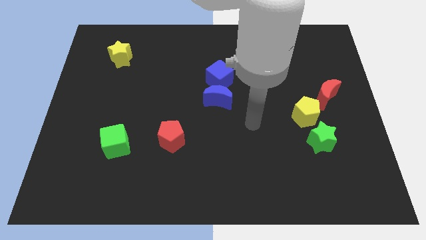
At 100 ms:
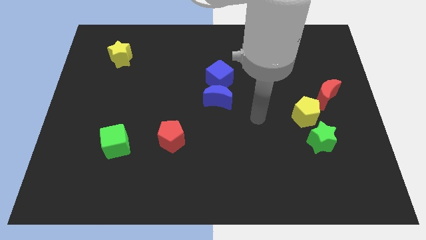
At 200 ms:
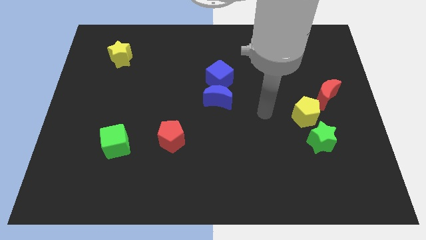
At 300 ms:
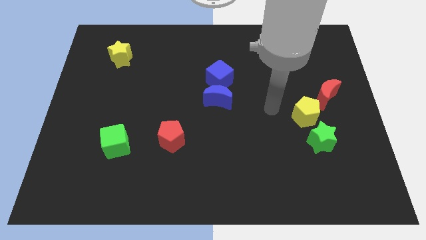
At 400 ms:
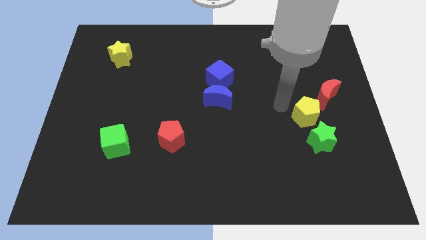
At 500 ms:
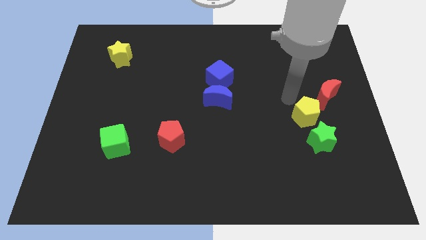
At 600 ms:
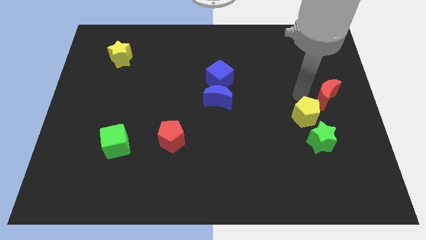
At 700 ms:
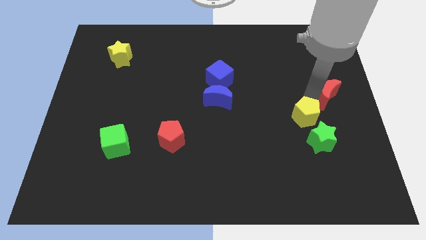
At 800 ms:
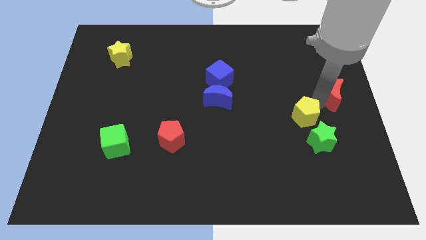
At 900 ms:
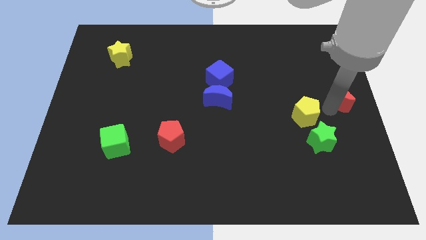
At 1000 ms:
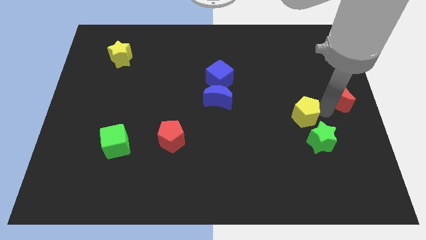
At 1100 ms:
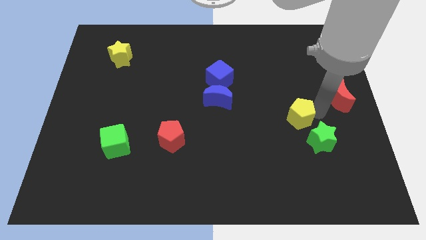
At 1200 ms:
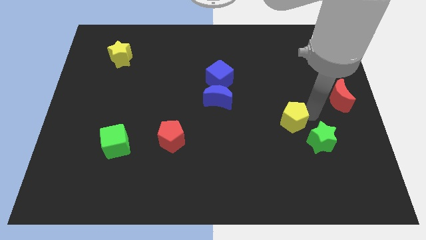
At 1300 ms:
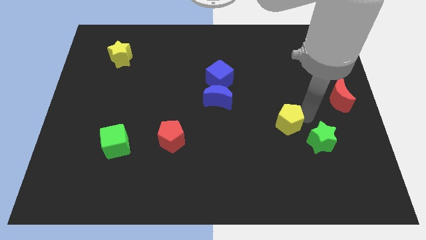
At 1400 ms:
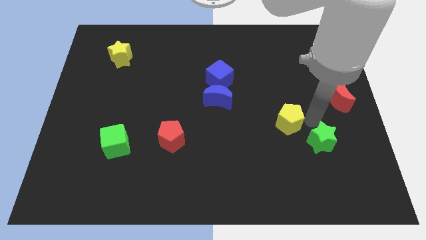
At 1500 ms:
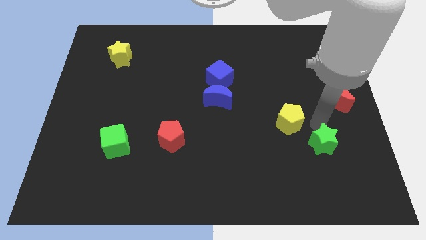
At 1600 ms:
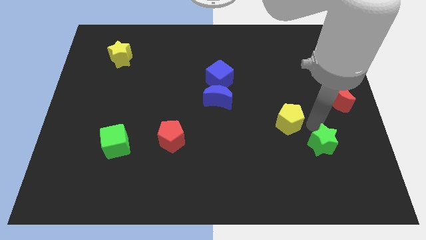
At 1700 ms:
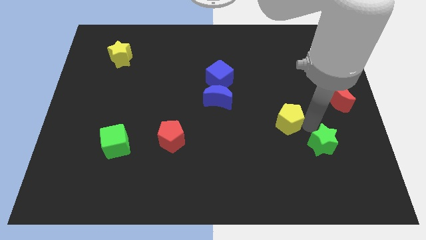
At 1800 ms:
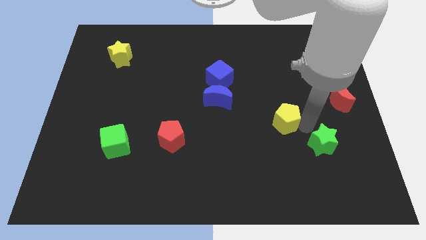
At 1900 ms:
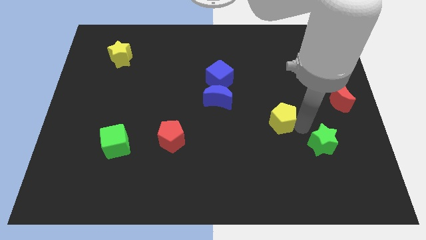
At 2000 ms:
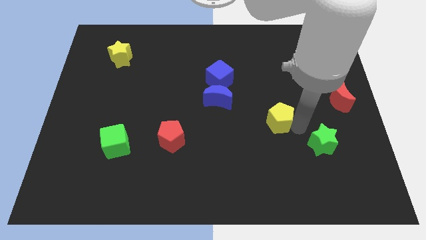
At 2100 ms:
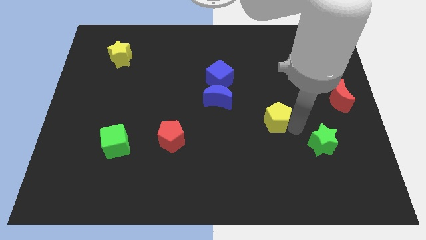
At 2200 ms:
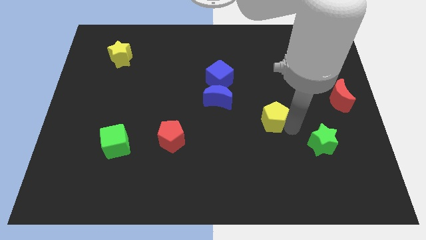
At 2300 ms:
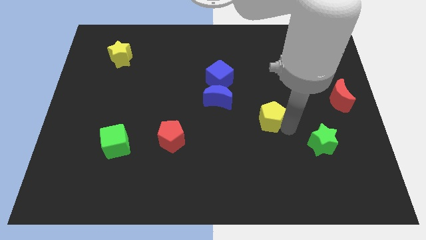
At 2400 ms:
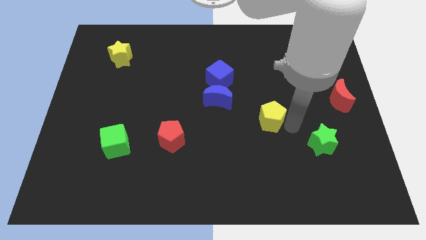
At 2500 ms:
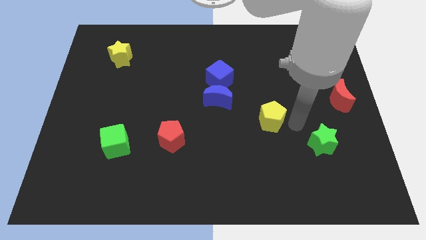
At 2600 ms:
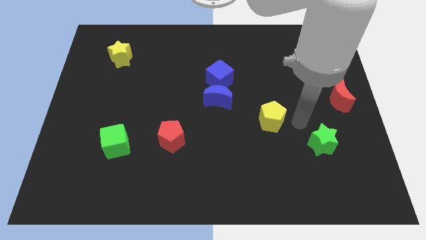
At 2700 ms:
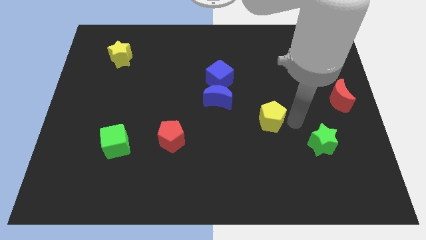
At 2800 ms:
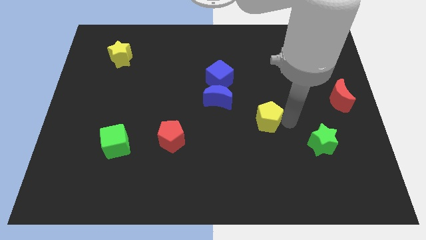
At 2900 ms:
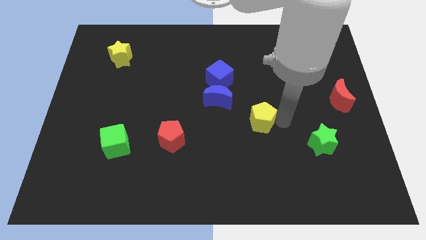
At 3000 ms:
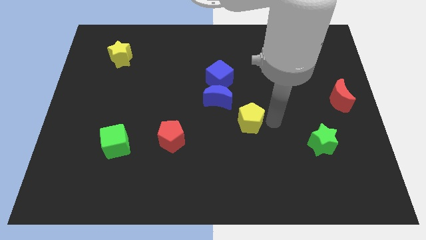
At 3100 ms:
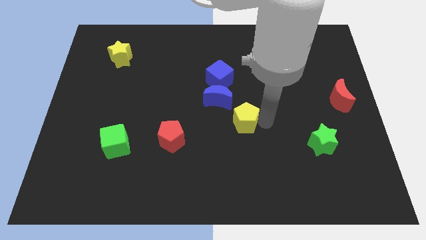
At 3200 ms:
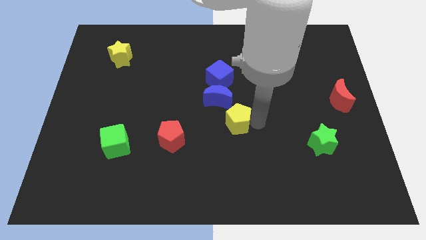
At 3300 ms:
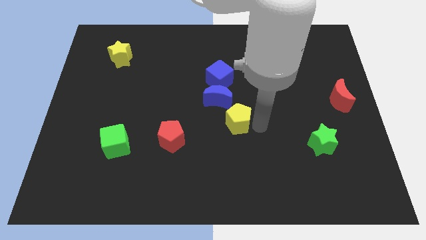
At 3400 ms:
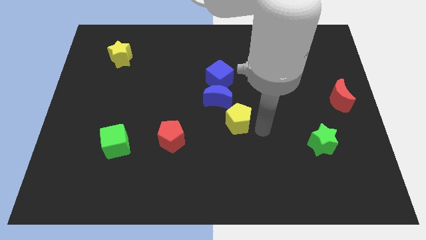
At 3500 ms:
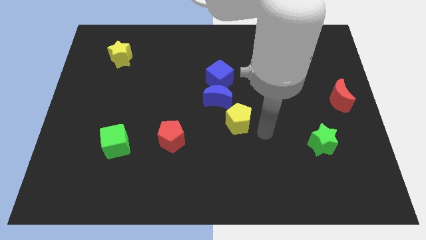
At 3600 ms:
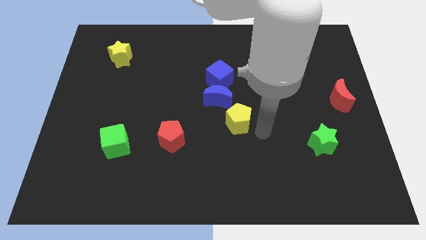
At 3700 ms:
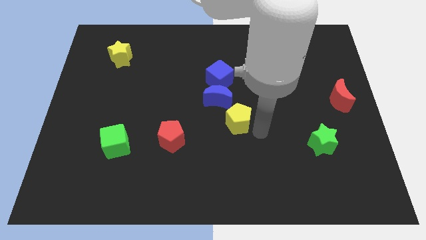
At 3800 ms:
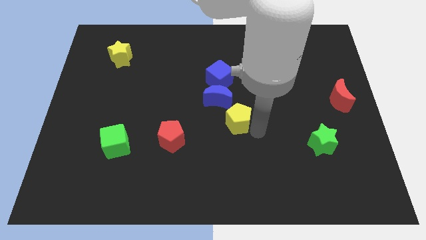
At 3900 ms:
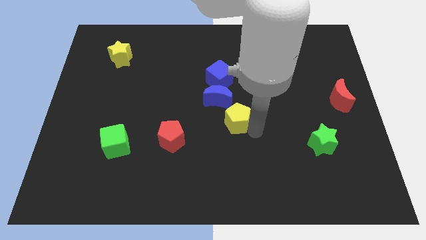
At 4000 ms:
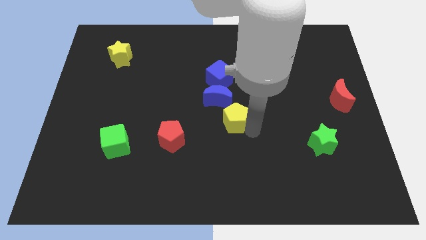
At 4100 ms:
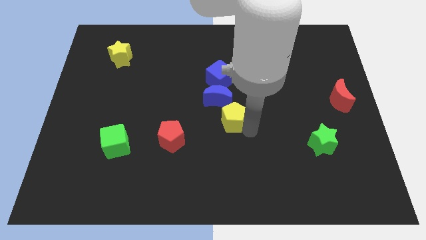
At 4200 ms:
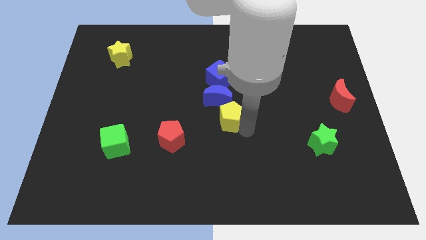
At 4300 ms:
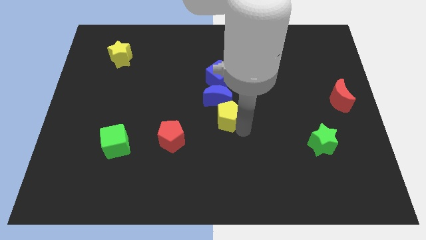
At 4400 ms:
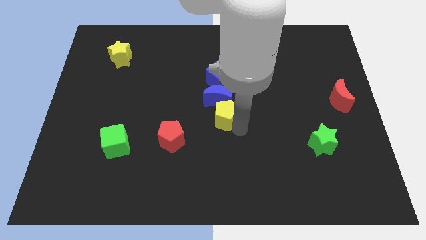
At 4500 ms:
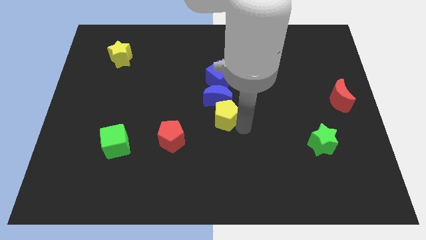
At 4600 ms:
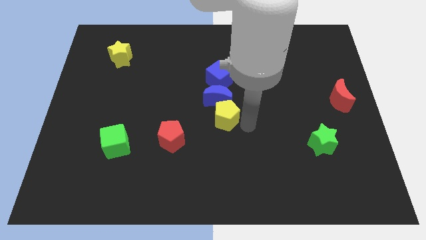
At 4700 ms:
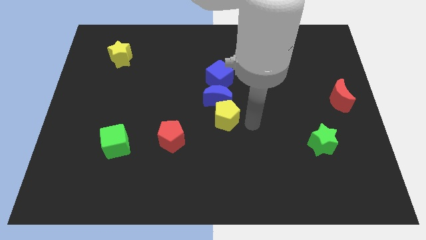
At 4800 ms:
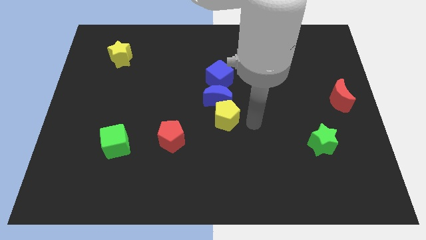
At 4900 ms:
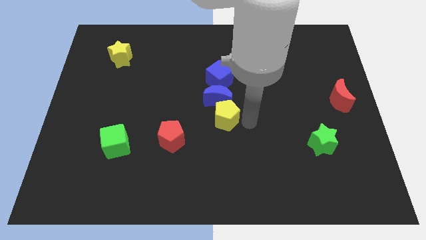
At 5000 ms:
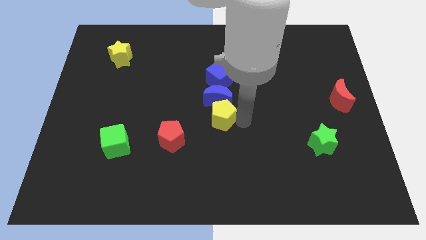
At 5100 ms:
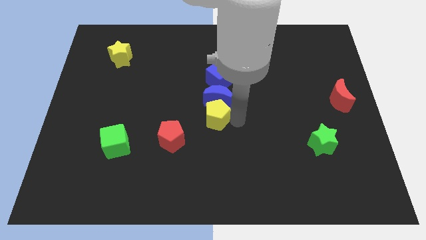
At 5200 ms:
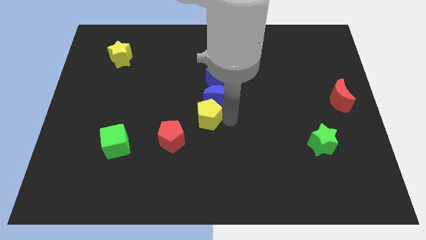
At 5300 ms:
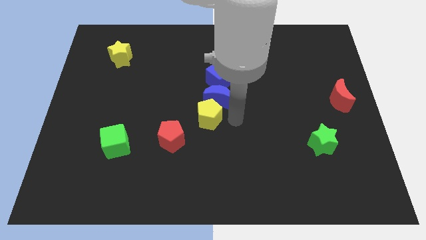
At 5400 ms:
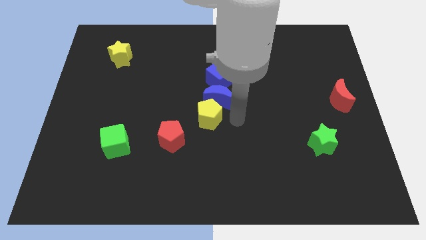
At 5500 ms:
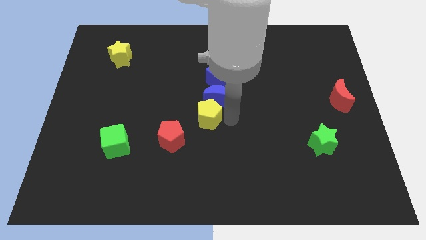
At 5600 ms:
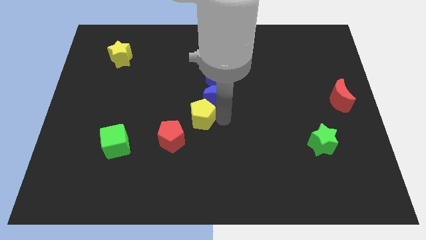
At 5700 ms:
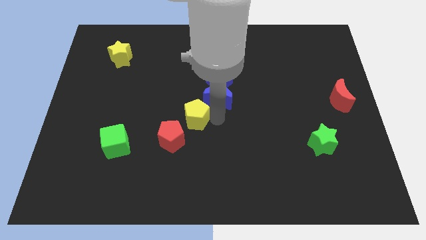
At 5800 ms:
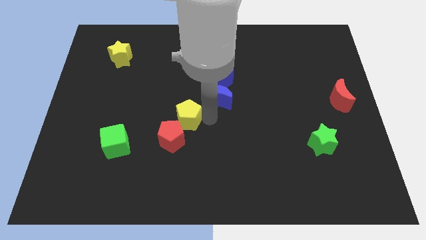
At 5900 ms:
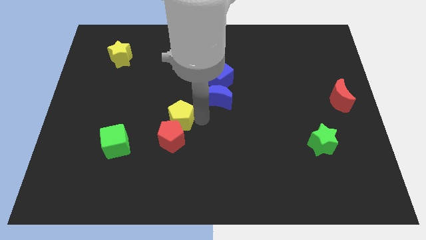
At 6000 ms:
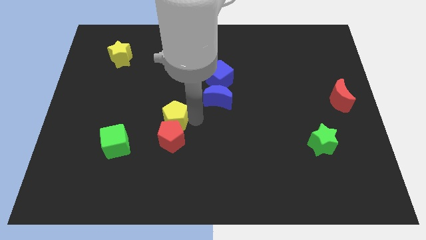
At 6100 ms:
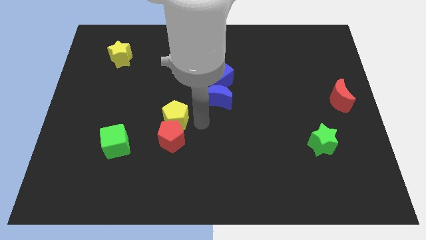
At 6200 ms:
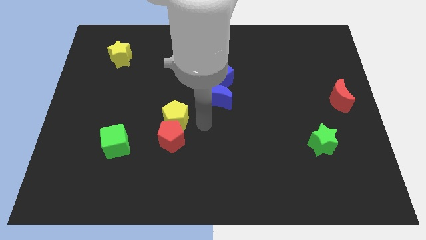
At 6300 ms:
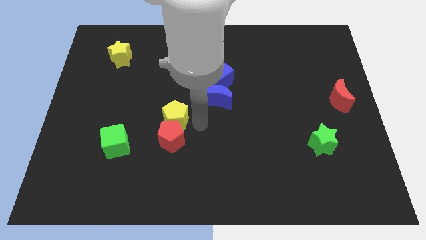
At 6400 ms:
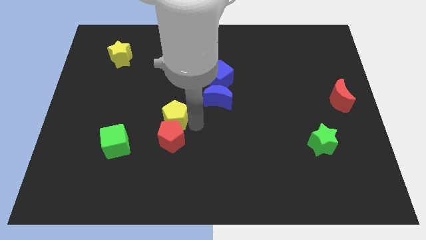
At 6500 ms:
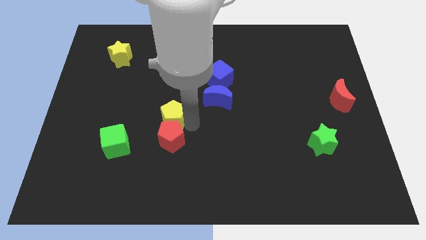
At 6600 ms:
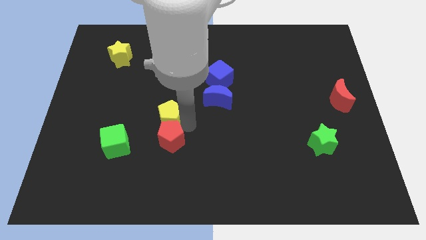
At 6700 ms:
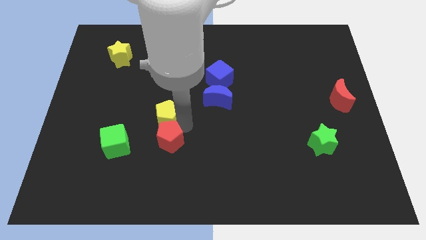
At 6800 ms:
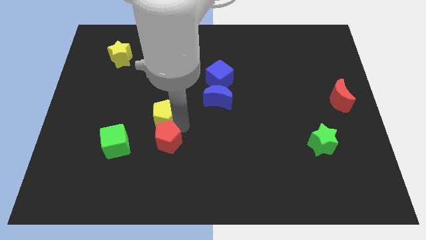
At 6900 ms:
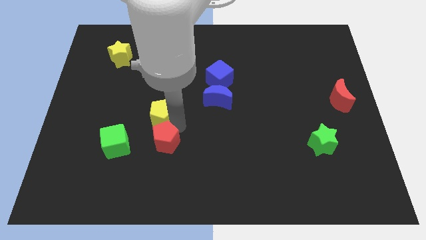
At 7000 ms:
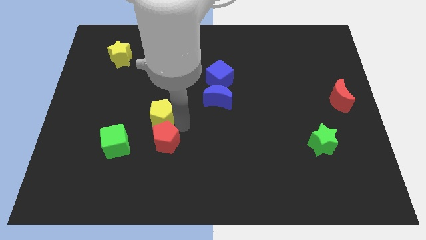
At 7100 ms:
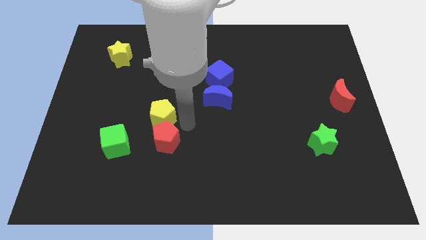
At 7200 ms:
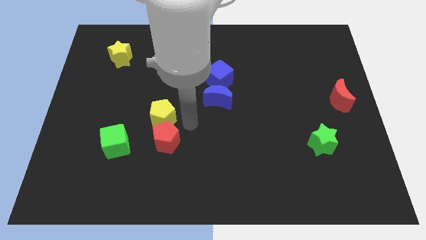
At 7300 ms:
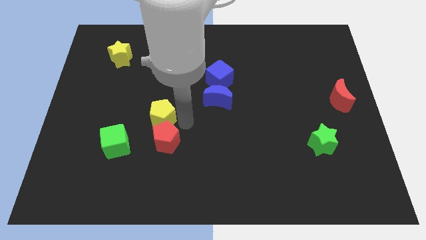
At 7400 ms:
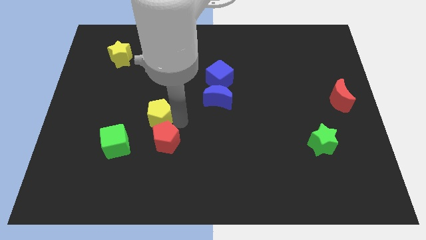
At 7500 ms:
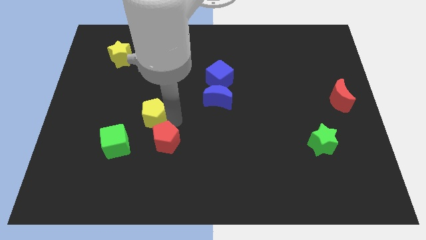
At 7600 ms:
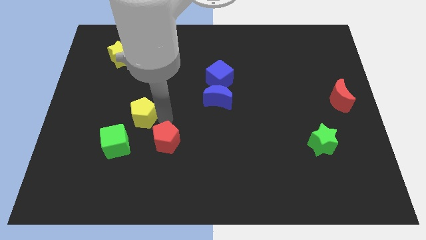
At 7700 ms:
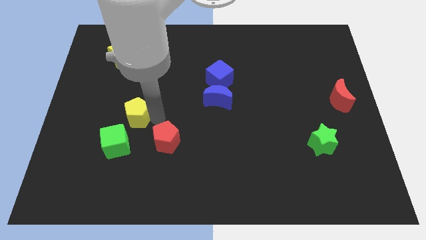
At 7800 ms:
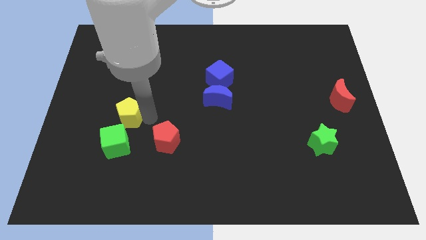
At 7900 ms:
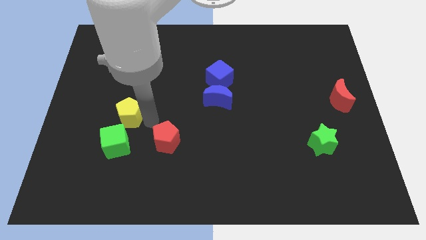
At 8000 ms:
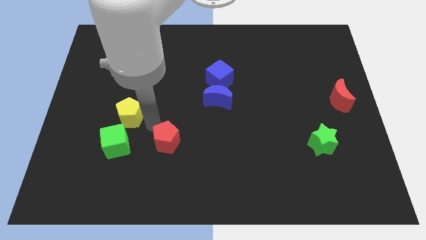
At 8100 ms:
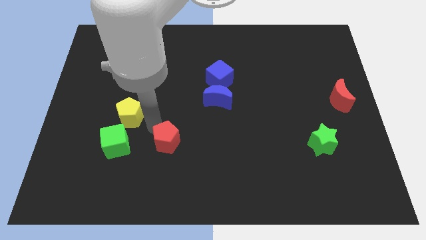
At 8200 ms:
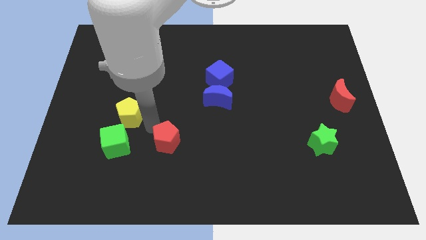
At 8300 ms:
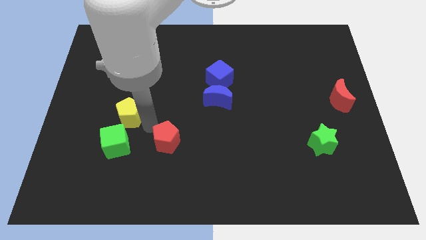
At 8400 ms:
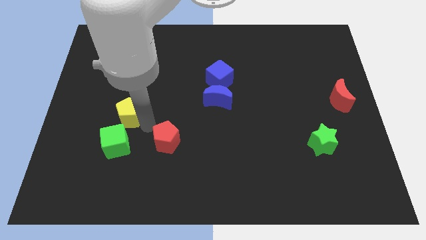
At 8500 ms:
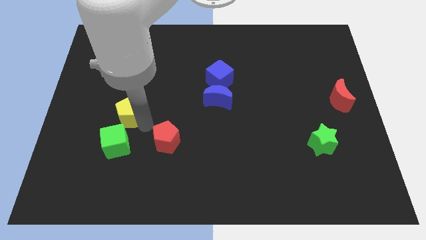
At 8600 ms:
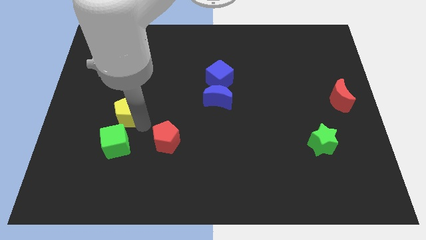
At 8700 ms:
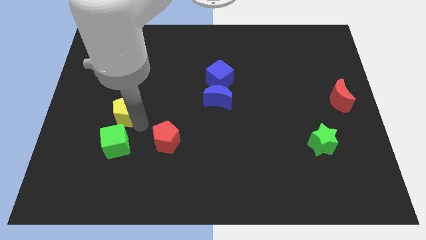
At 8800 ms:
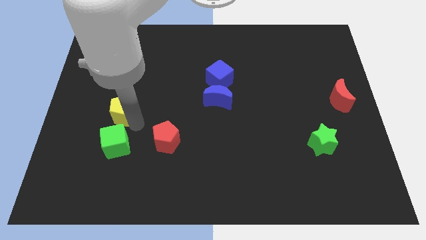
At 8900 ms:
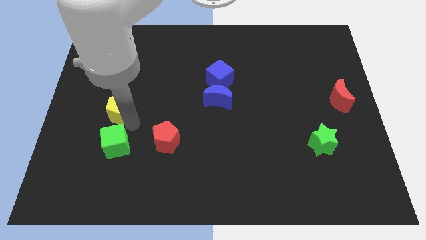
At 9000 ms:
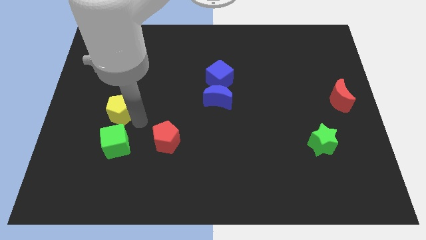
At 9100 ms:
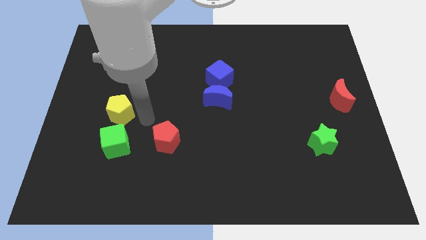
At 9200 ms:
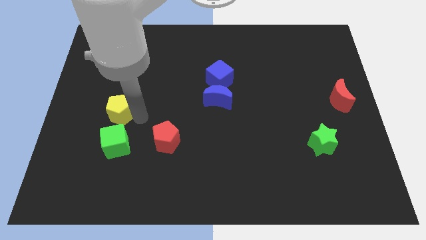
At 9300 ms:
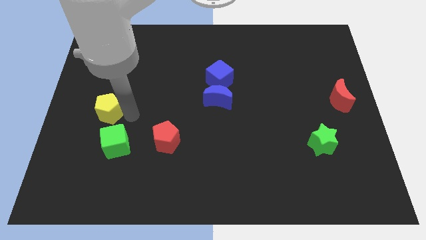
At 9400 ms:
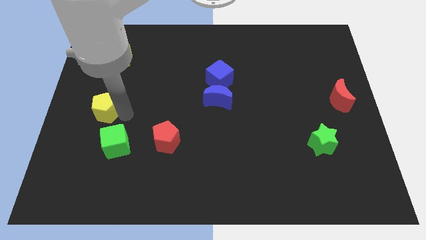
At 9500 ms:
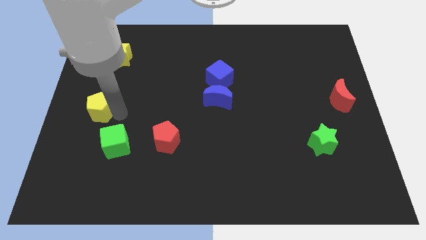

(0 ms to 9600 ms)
slide the yellow pentagon to the center left
